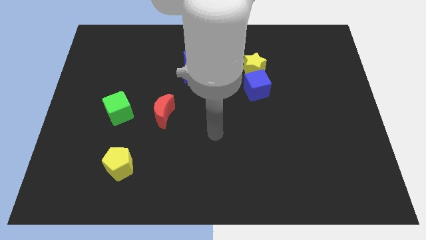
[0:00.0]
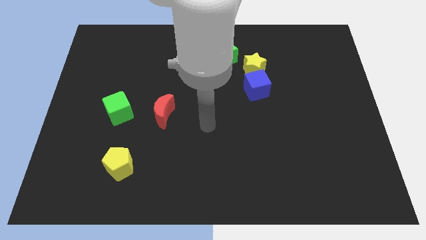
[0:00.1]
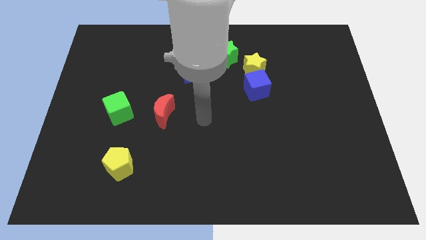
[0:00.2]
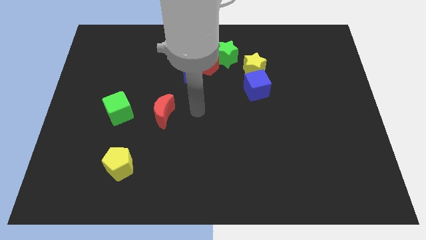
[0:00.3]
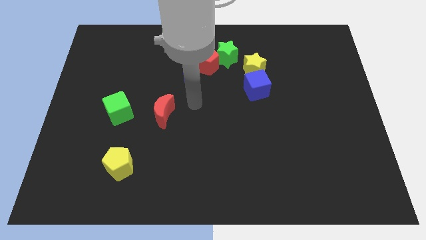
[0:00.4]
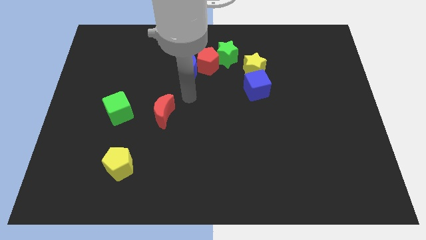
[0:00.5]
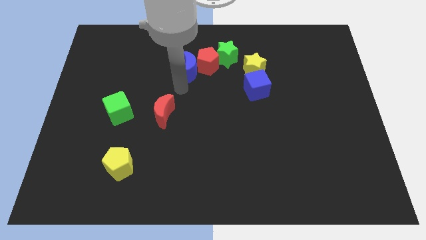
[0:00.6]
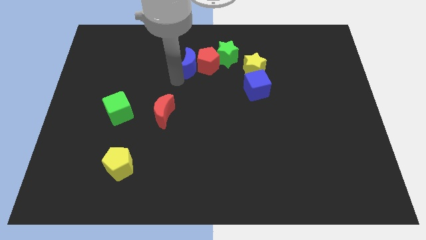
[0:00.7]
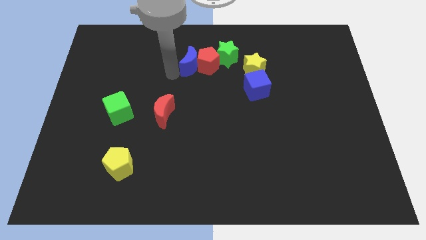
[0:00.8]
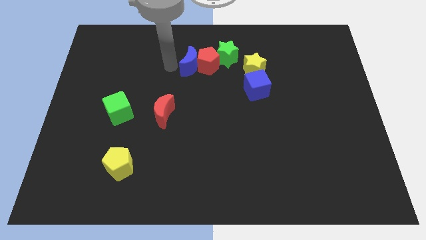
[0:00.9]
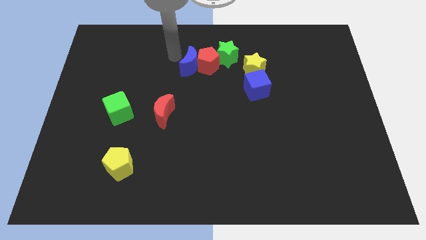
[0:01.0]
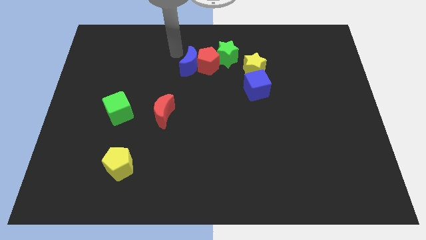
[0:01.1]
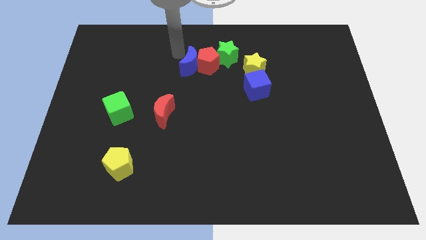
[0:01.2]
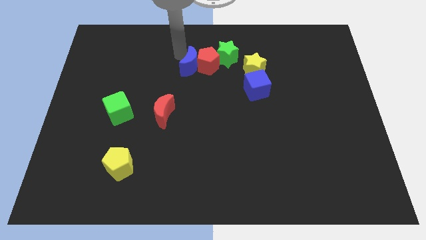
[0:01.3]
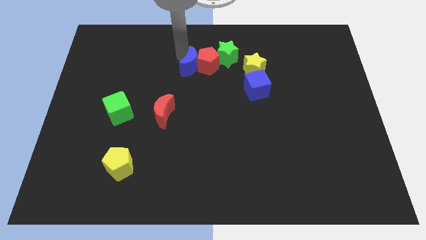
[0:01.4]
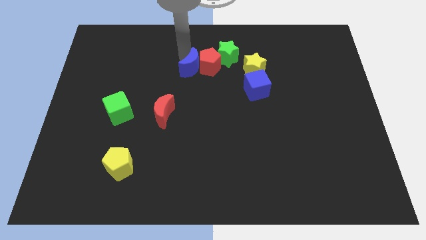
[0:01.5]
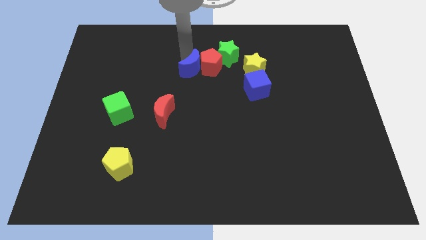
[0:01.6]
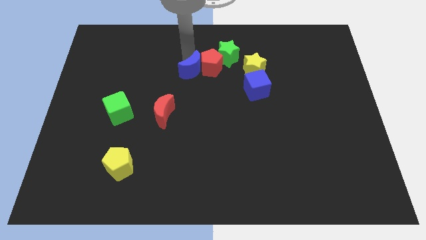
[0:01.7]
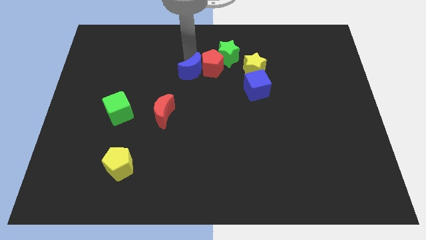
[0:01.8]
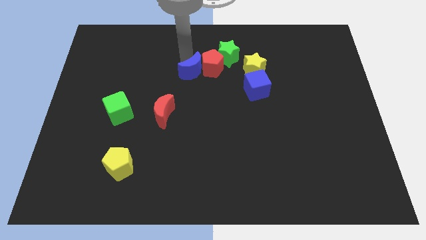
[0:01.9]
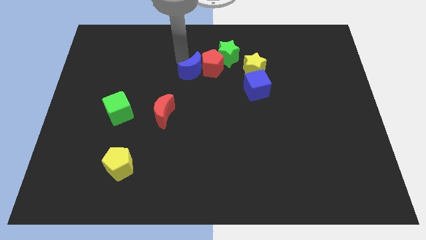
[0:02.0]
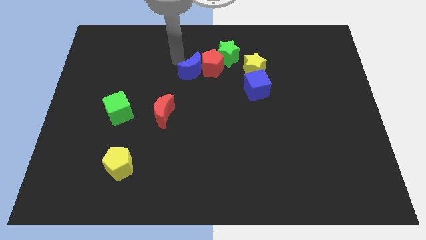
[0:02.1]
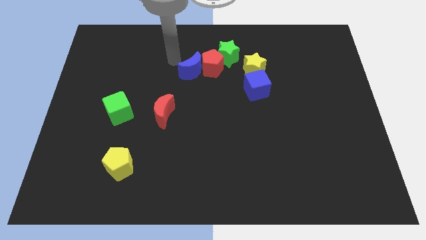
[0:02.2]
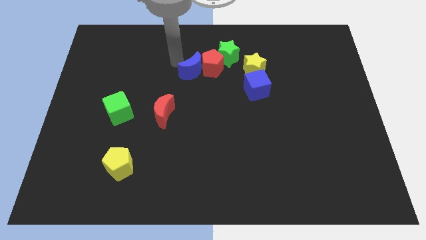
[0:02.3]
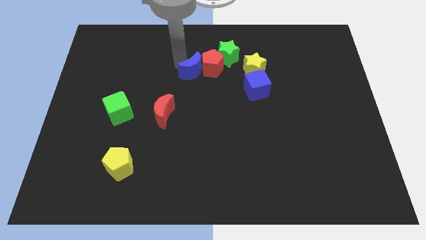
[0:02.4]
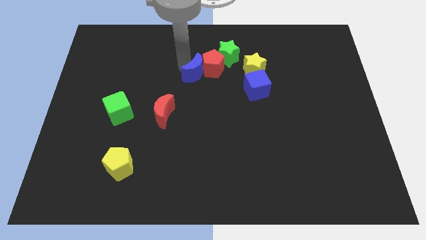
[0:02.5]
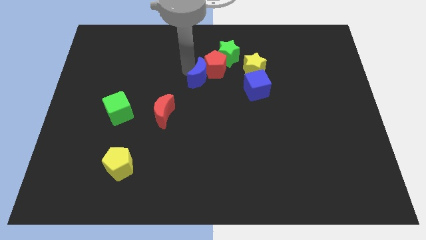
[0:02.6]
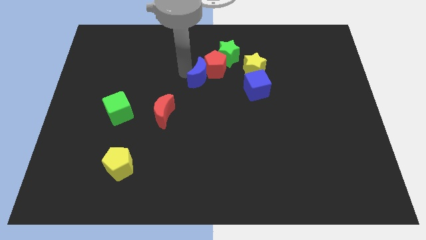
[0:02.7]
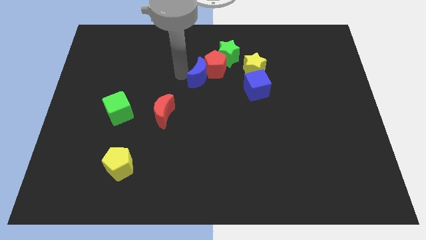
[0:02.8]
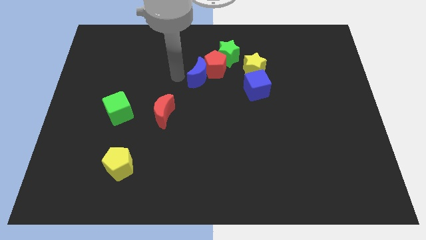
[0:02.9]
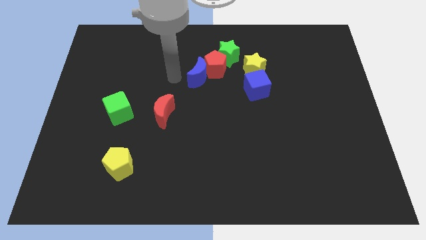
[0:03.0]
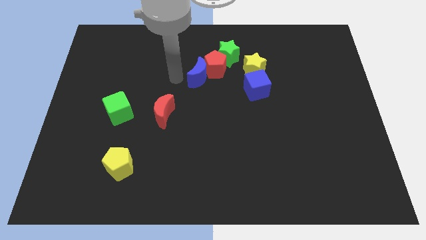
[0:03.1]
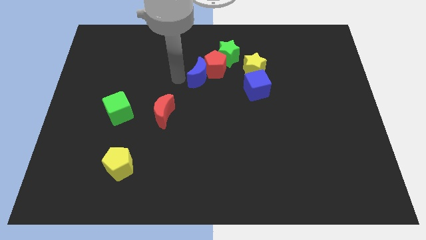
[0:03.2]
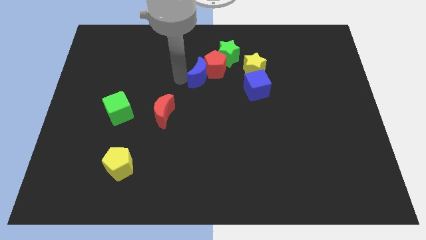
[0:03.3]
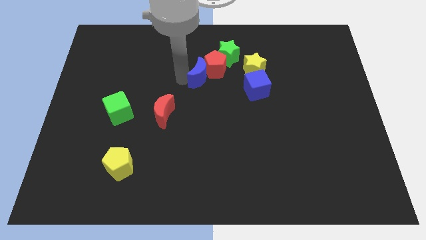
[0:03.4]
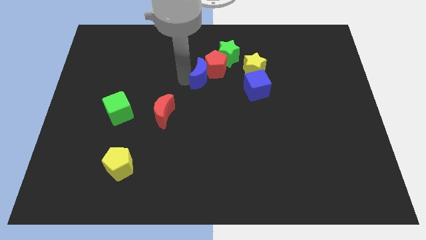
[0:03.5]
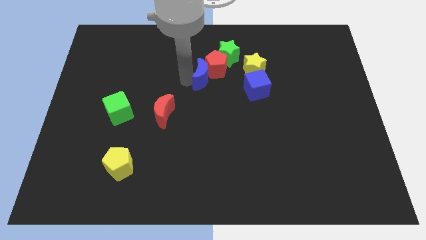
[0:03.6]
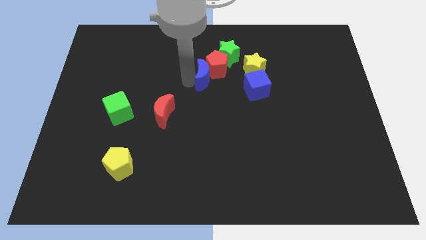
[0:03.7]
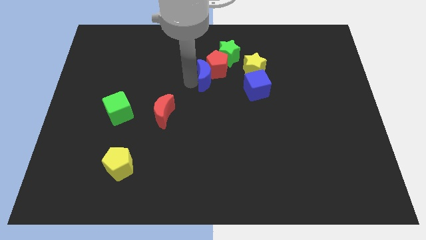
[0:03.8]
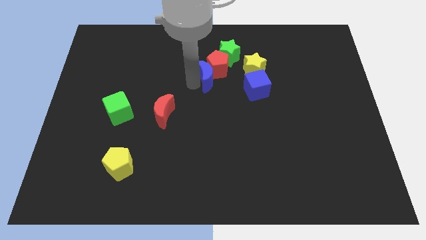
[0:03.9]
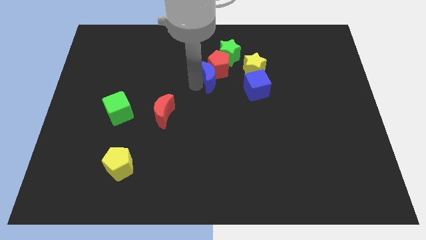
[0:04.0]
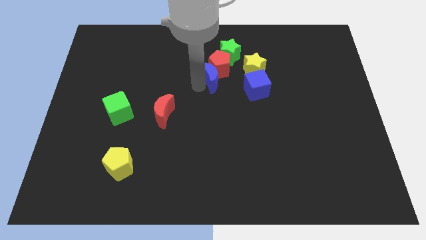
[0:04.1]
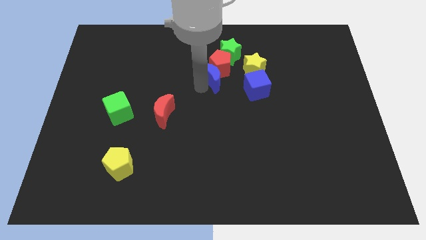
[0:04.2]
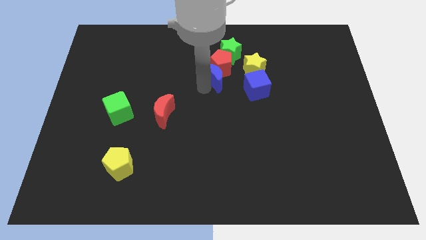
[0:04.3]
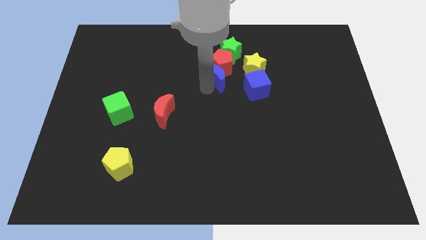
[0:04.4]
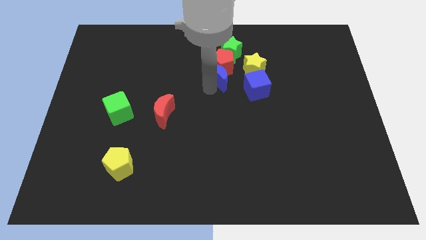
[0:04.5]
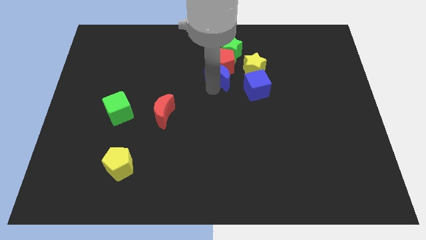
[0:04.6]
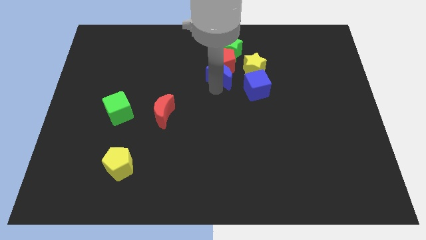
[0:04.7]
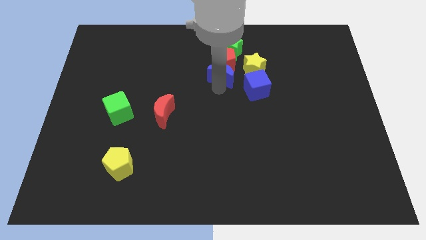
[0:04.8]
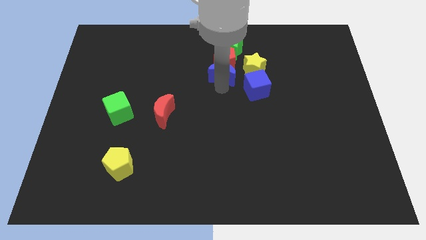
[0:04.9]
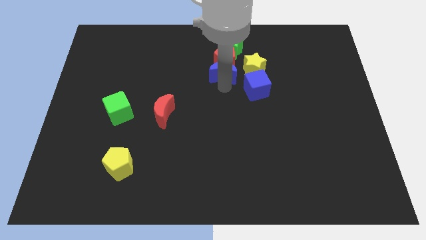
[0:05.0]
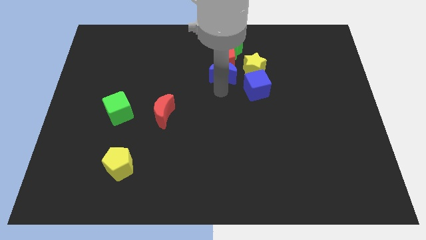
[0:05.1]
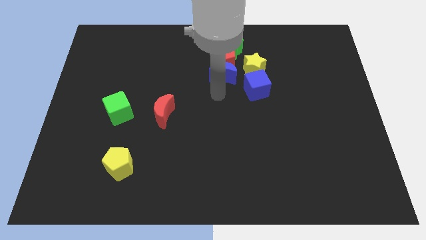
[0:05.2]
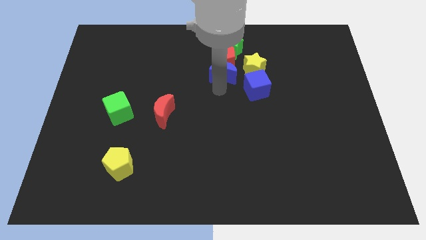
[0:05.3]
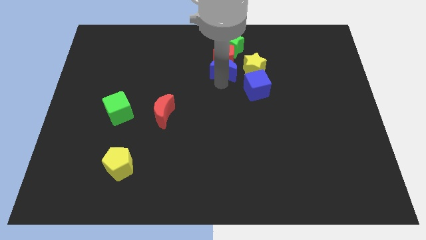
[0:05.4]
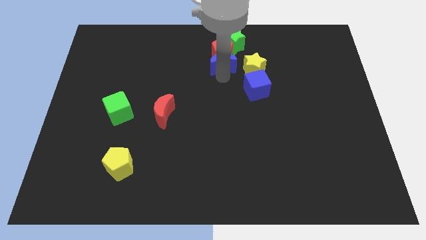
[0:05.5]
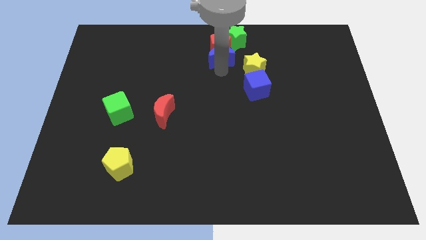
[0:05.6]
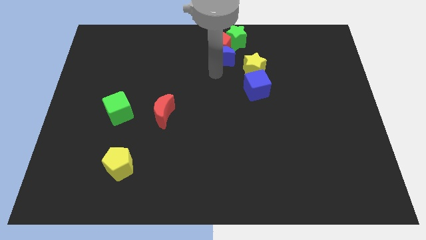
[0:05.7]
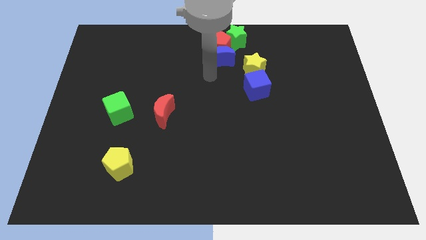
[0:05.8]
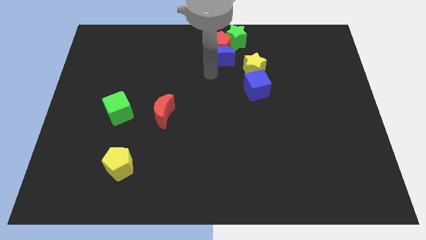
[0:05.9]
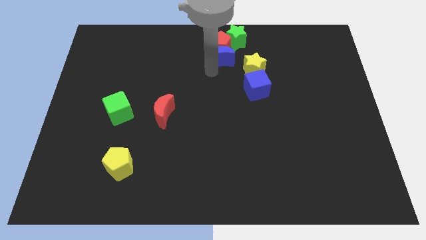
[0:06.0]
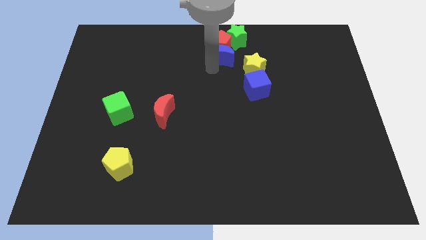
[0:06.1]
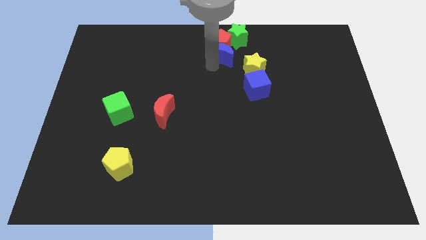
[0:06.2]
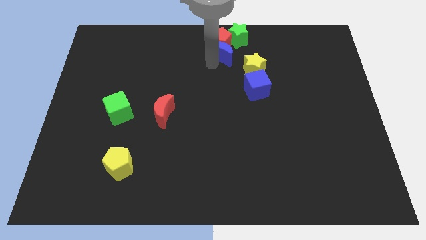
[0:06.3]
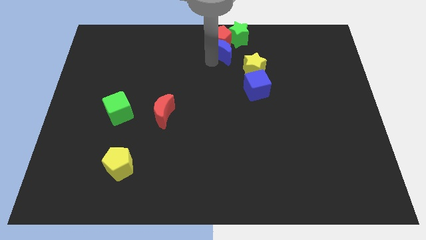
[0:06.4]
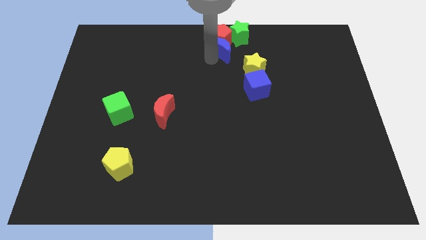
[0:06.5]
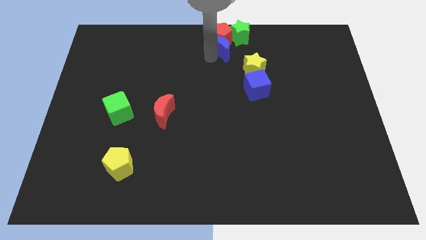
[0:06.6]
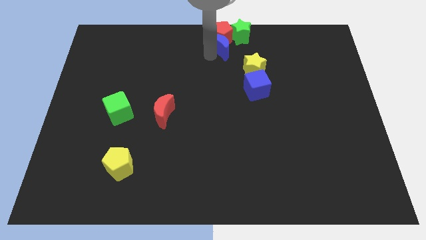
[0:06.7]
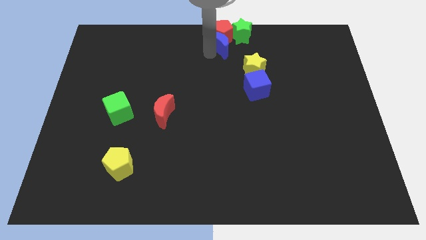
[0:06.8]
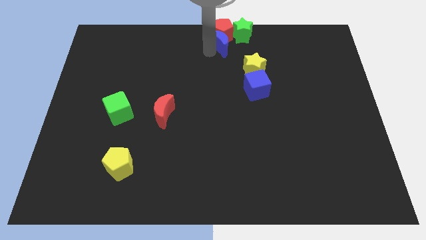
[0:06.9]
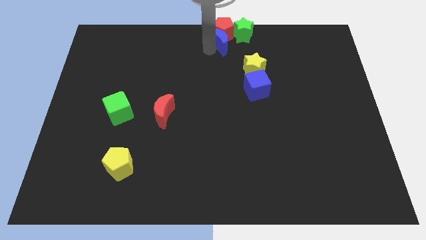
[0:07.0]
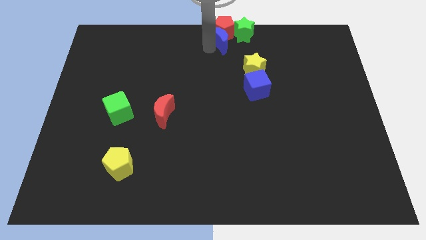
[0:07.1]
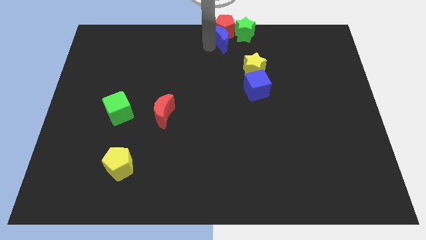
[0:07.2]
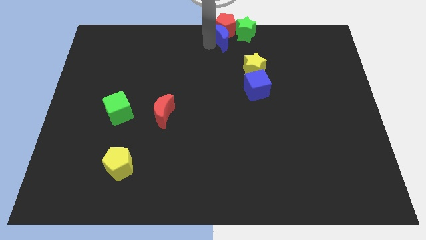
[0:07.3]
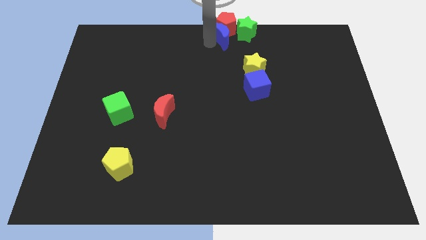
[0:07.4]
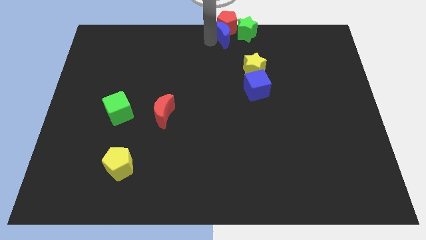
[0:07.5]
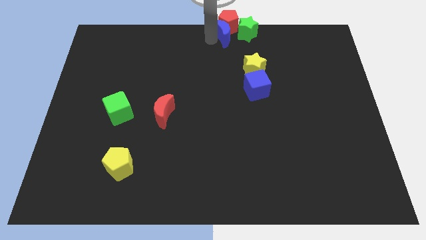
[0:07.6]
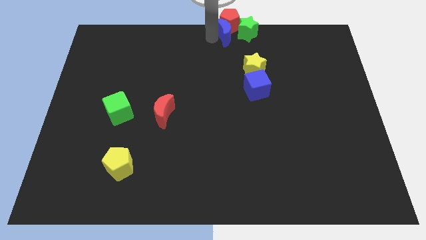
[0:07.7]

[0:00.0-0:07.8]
put the blue moon towards the green star
